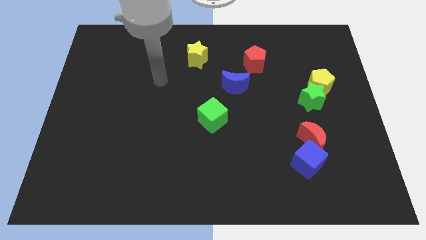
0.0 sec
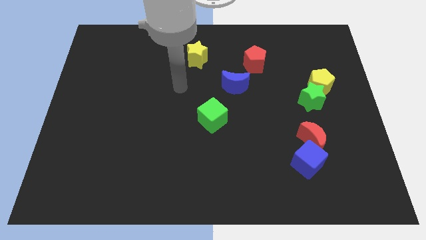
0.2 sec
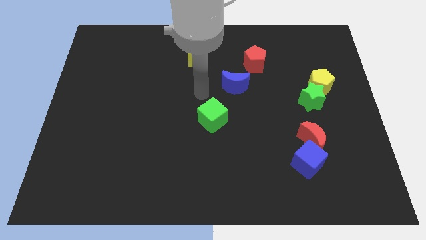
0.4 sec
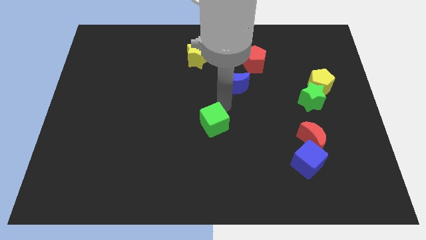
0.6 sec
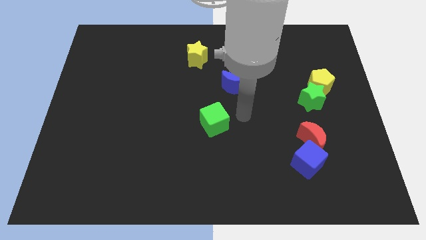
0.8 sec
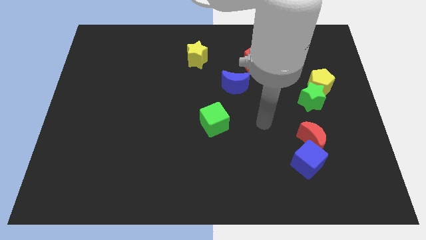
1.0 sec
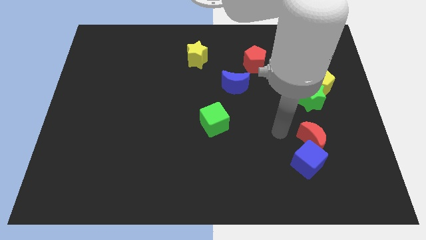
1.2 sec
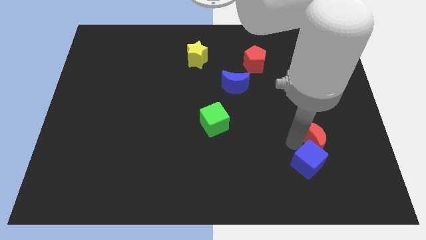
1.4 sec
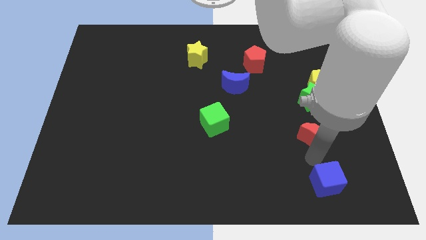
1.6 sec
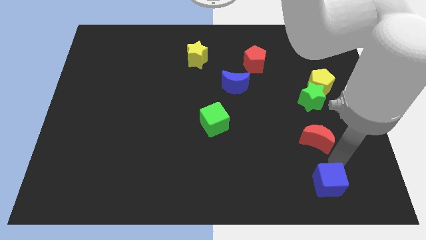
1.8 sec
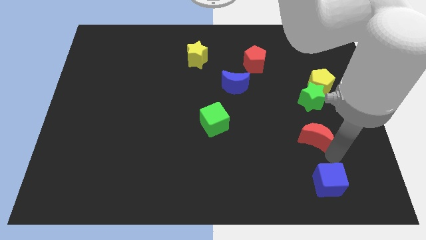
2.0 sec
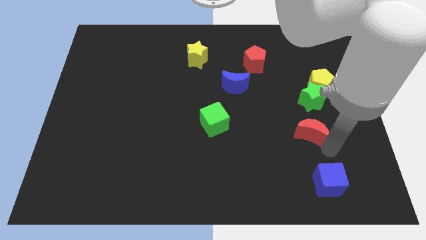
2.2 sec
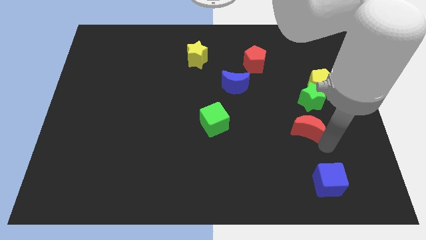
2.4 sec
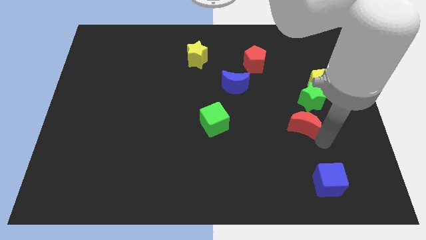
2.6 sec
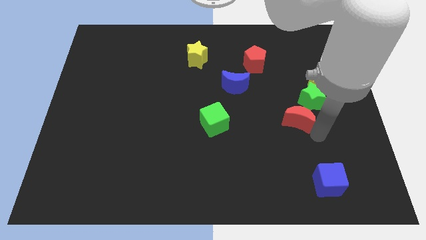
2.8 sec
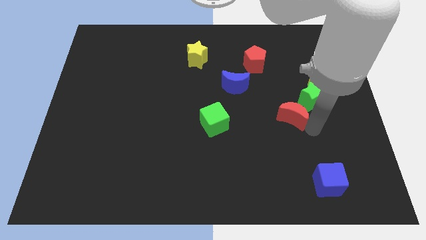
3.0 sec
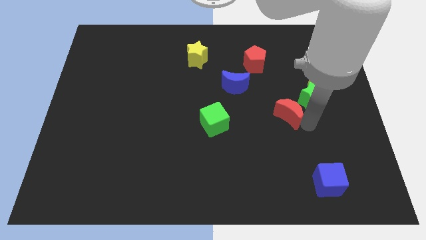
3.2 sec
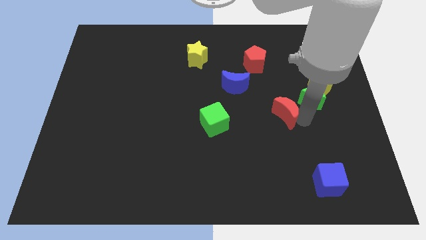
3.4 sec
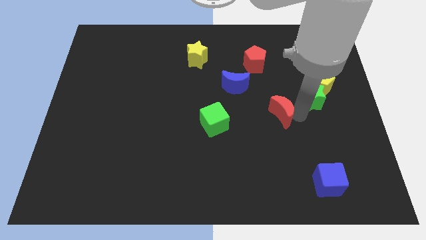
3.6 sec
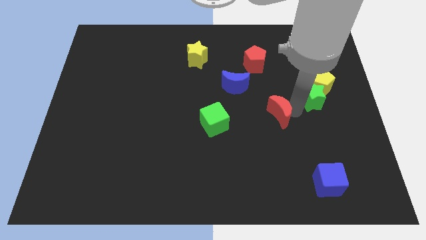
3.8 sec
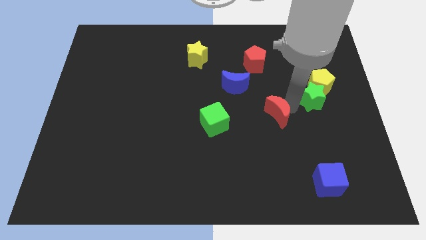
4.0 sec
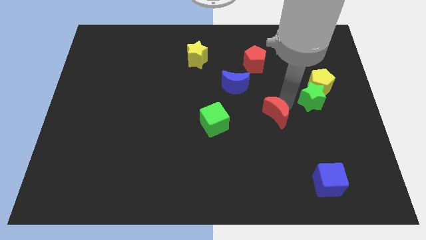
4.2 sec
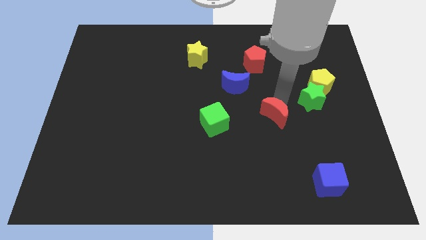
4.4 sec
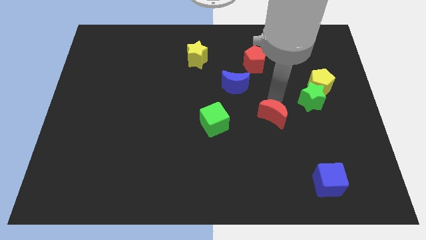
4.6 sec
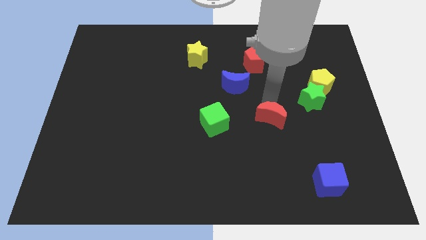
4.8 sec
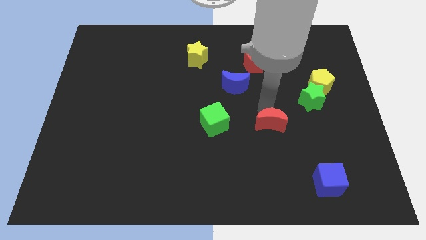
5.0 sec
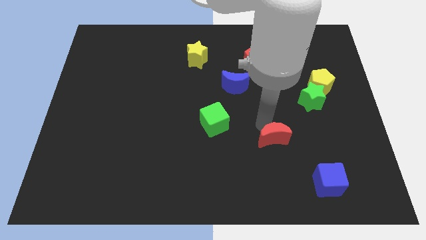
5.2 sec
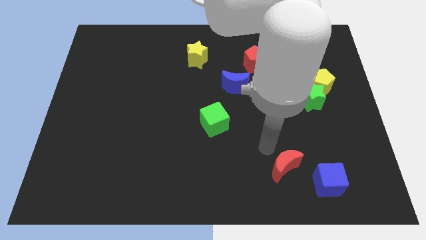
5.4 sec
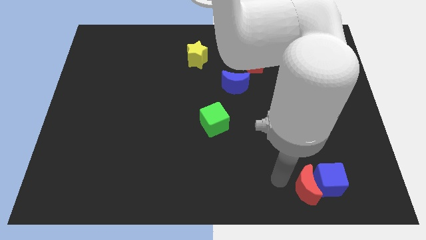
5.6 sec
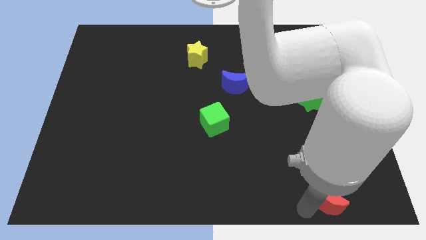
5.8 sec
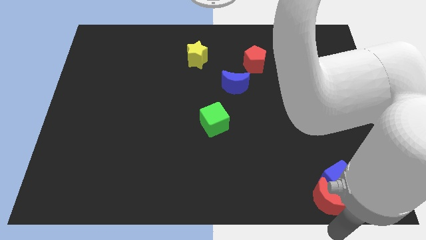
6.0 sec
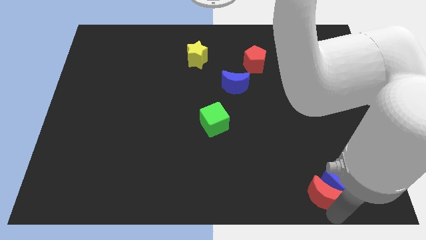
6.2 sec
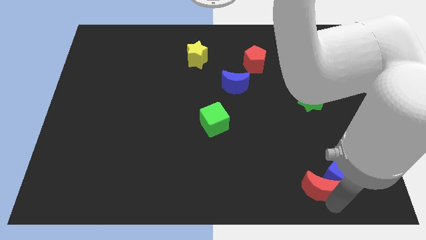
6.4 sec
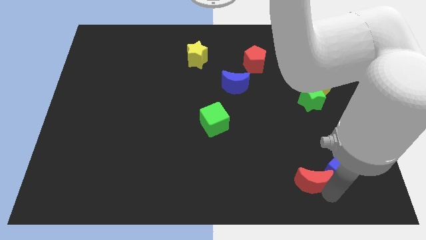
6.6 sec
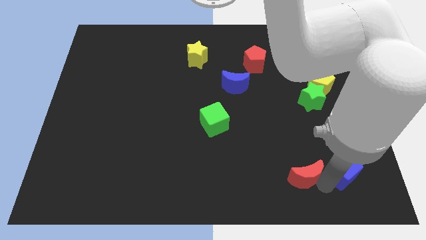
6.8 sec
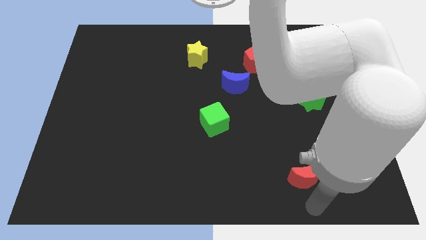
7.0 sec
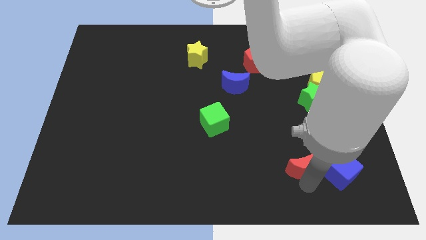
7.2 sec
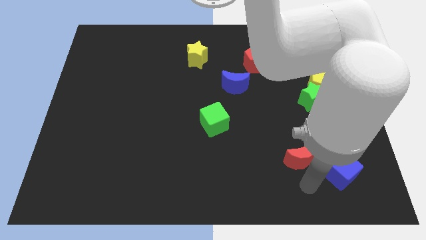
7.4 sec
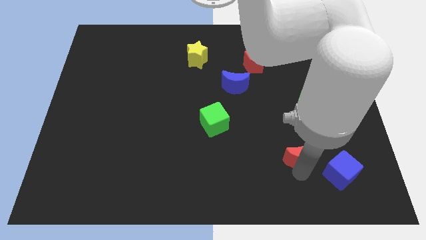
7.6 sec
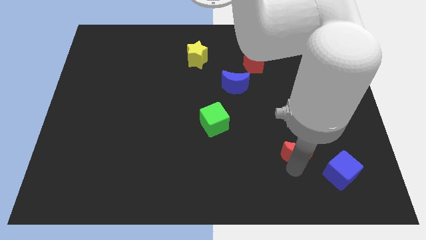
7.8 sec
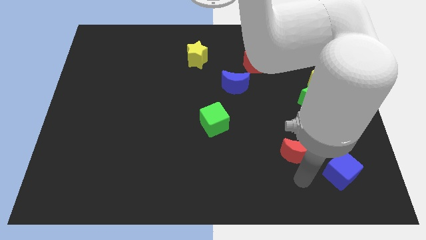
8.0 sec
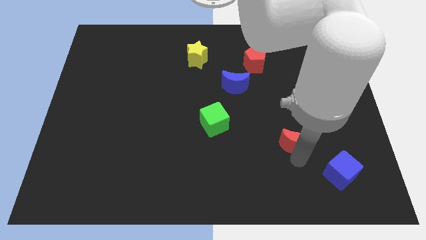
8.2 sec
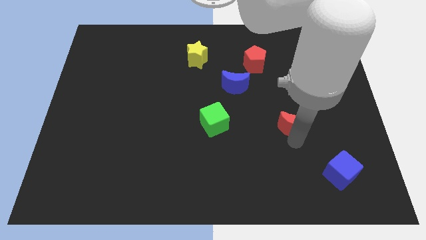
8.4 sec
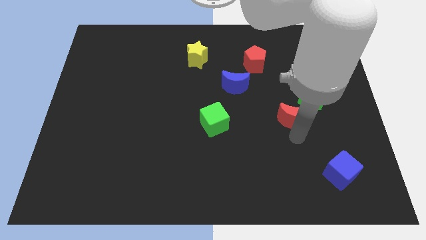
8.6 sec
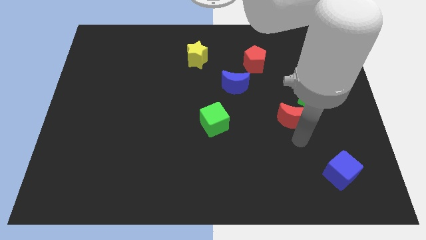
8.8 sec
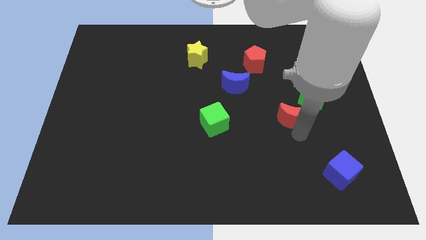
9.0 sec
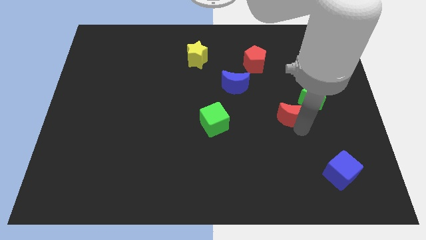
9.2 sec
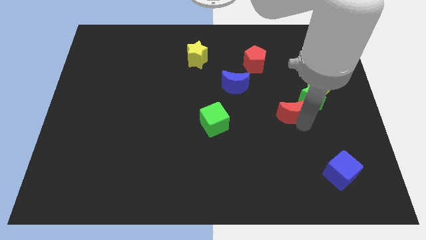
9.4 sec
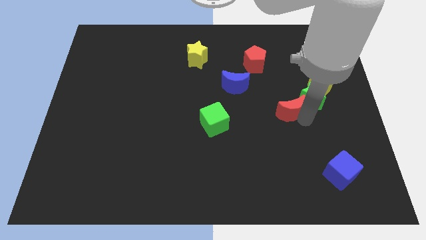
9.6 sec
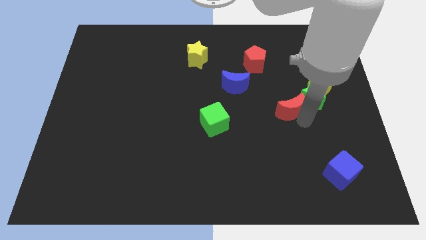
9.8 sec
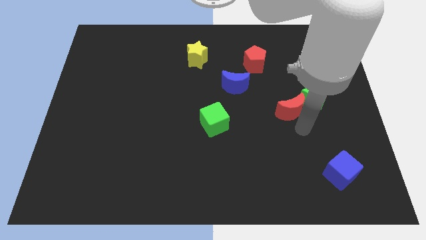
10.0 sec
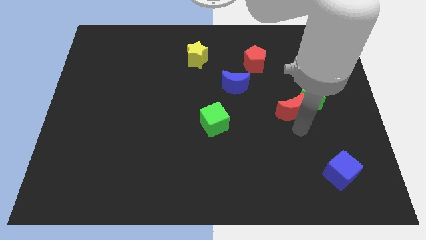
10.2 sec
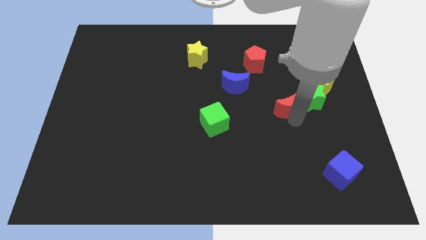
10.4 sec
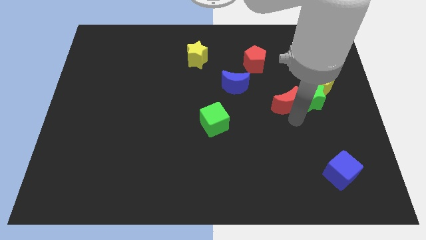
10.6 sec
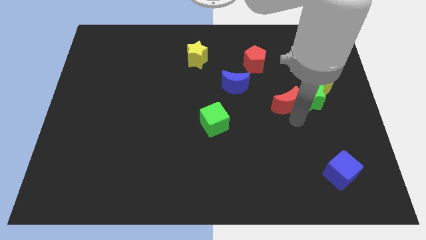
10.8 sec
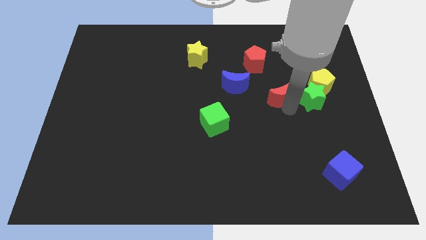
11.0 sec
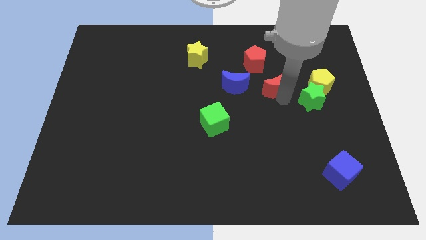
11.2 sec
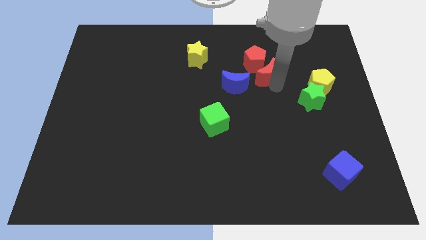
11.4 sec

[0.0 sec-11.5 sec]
slide the red moon close to the red pentagon
